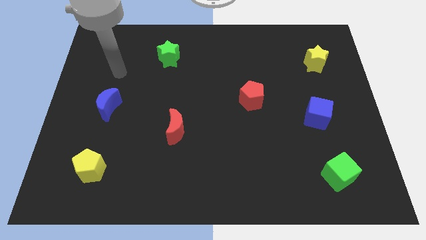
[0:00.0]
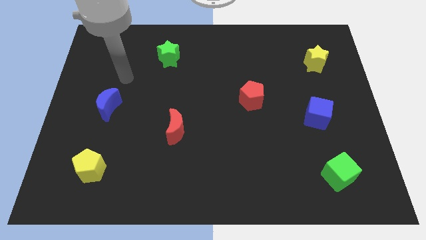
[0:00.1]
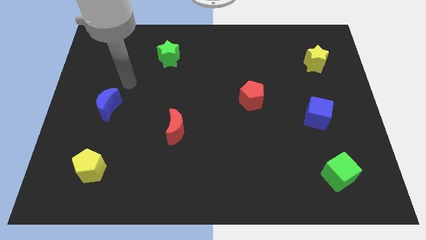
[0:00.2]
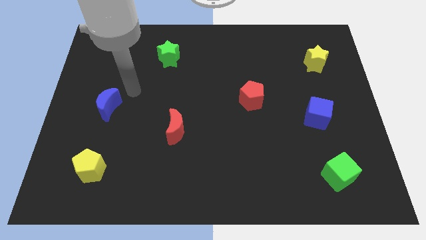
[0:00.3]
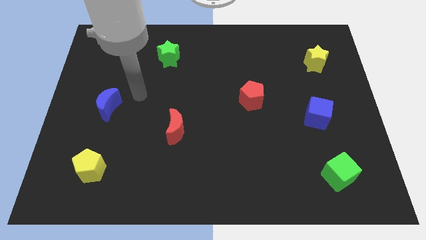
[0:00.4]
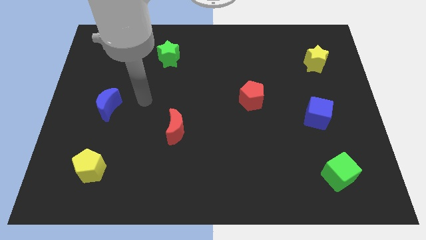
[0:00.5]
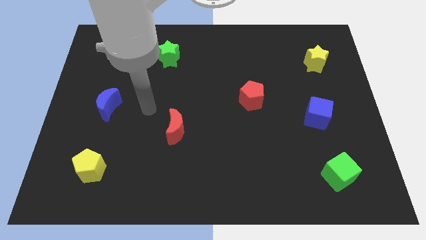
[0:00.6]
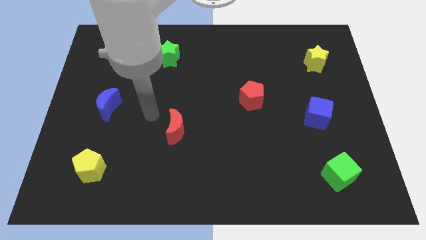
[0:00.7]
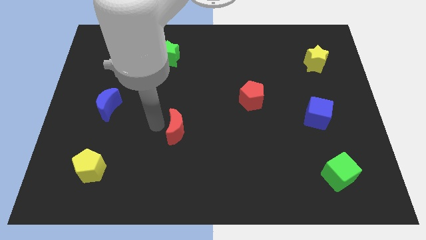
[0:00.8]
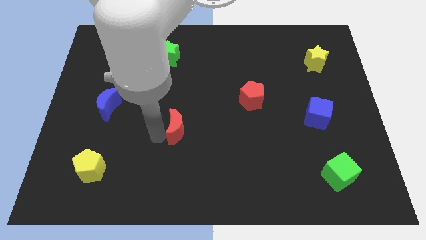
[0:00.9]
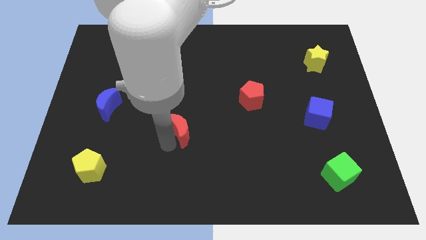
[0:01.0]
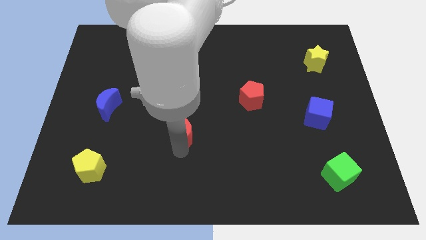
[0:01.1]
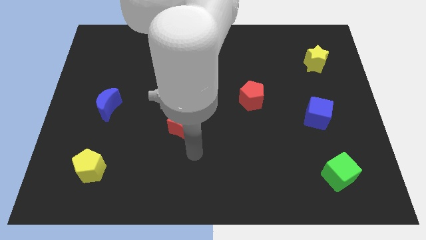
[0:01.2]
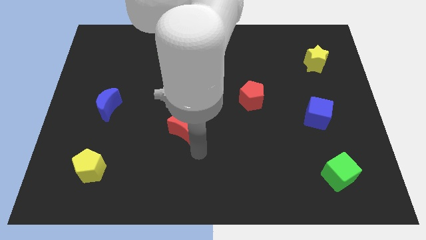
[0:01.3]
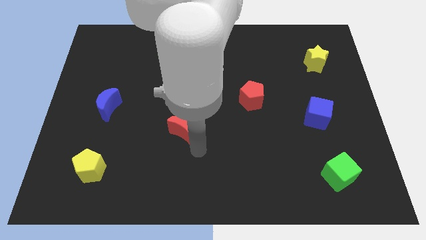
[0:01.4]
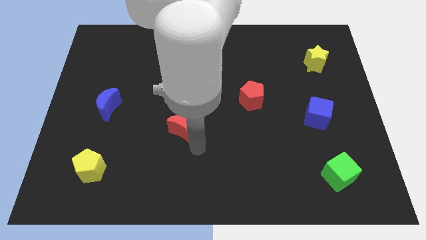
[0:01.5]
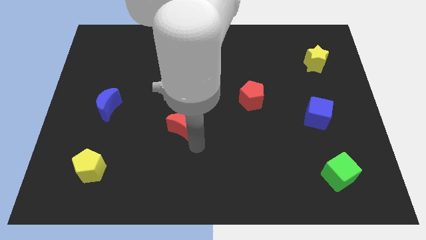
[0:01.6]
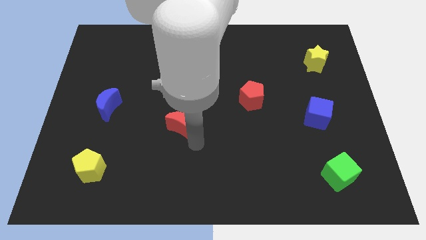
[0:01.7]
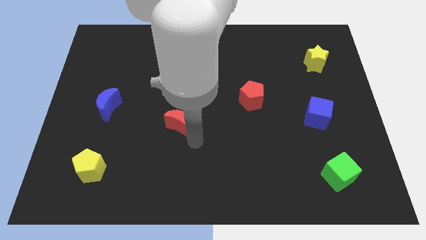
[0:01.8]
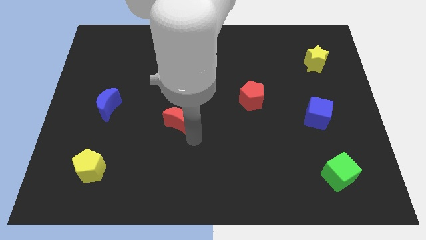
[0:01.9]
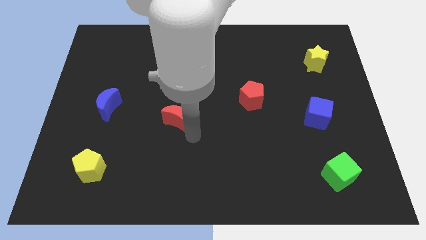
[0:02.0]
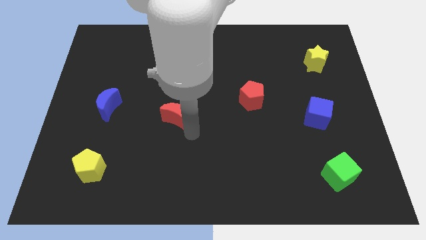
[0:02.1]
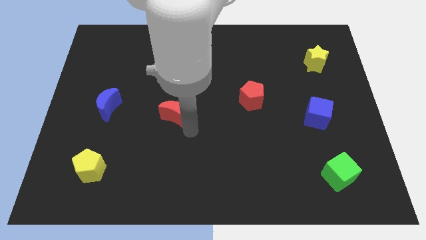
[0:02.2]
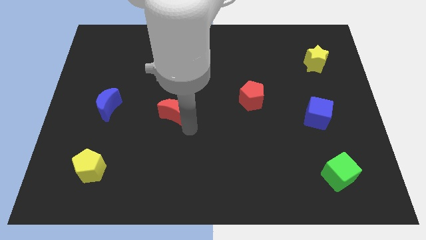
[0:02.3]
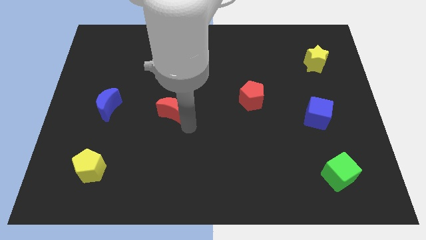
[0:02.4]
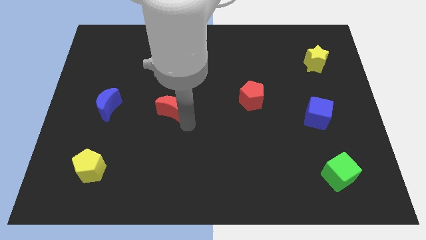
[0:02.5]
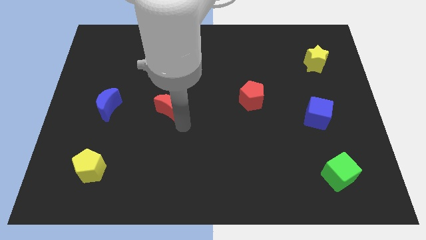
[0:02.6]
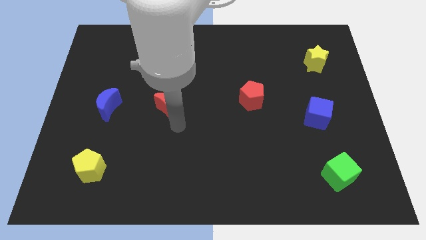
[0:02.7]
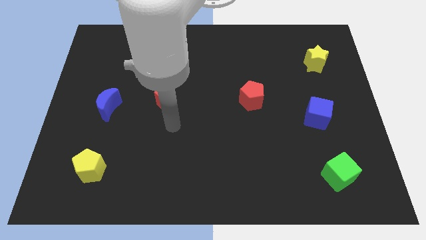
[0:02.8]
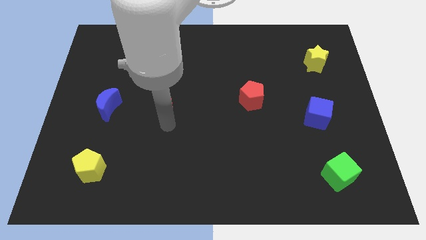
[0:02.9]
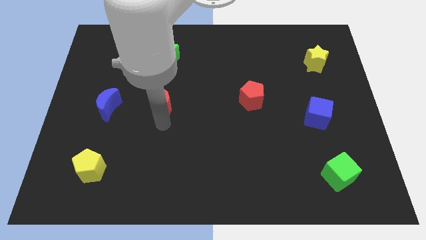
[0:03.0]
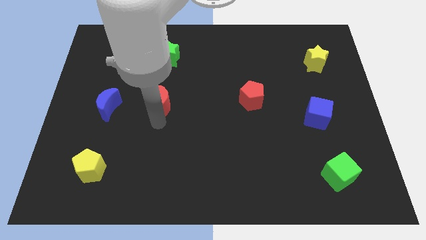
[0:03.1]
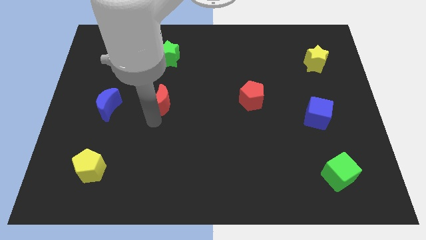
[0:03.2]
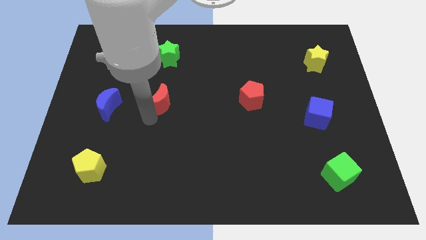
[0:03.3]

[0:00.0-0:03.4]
slightly slide the red moon up

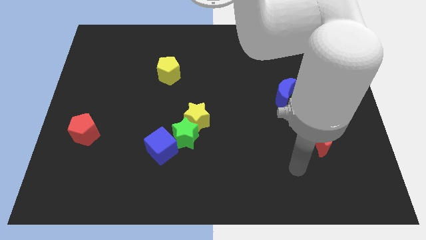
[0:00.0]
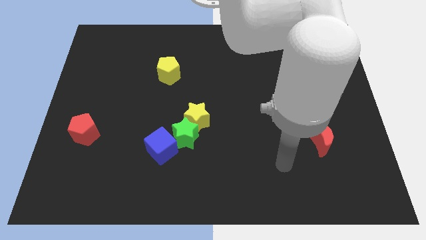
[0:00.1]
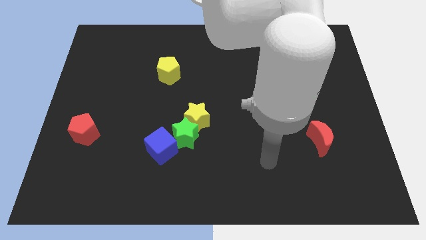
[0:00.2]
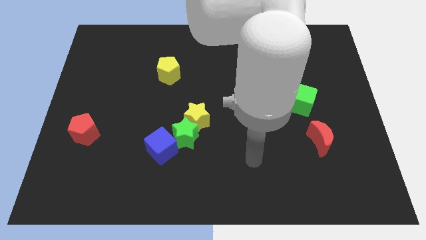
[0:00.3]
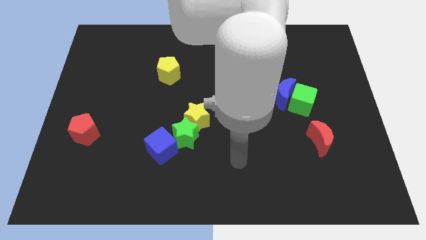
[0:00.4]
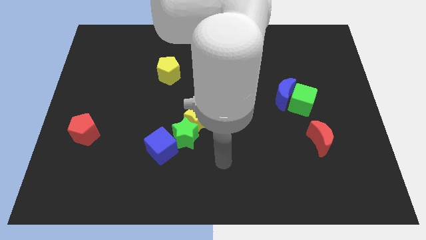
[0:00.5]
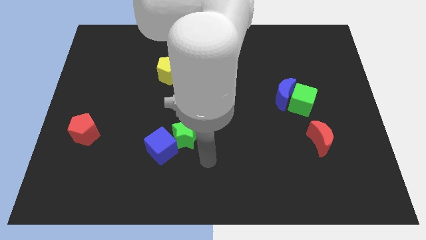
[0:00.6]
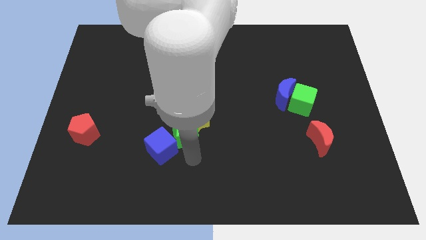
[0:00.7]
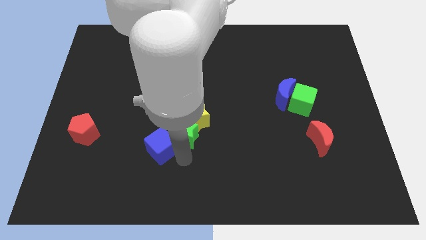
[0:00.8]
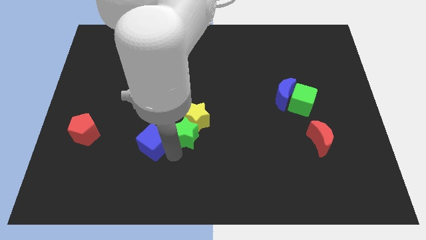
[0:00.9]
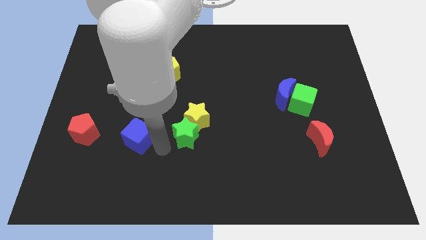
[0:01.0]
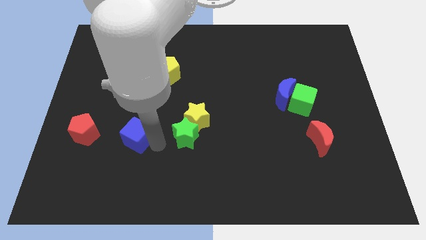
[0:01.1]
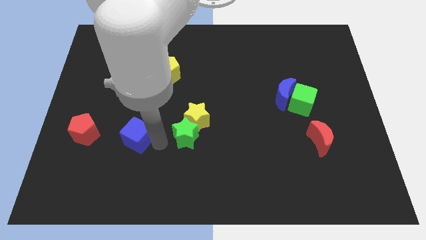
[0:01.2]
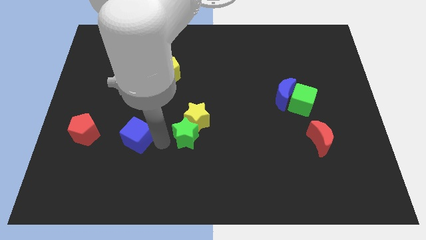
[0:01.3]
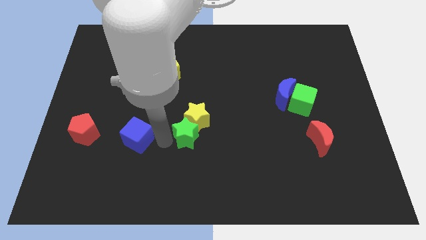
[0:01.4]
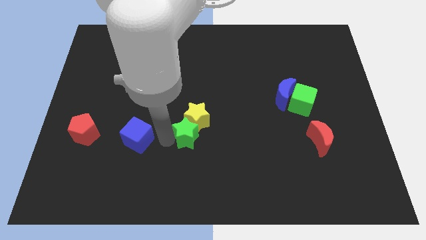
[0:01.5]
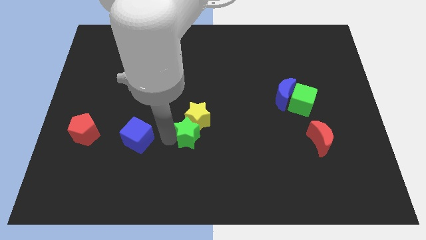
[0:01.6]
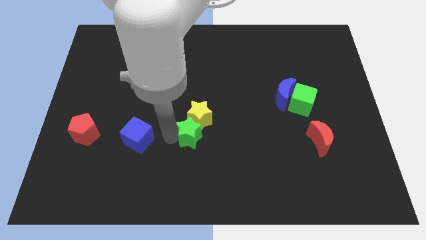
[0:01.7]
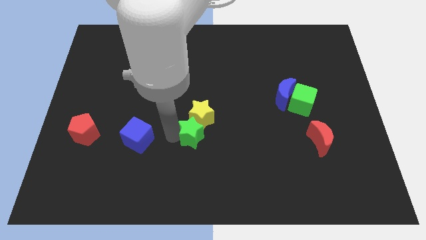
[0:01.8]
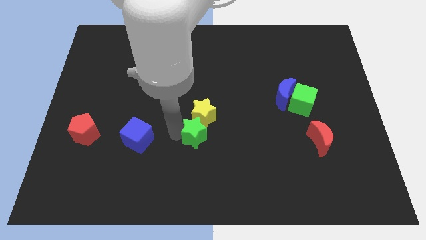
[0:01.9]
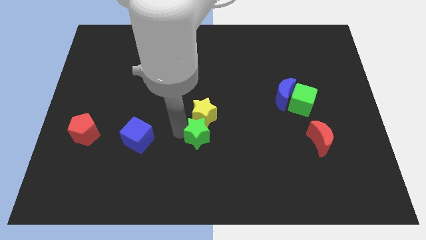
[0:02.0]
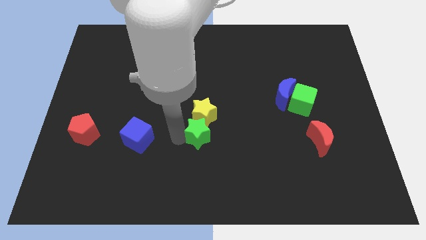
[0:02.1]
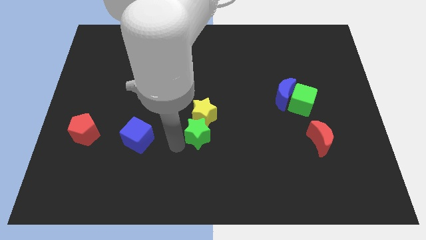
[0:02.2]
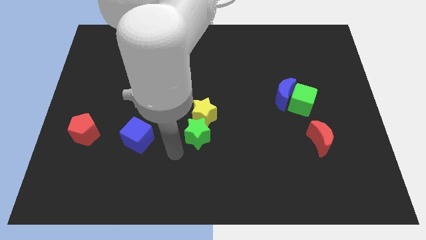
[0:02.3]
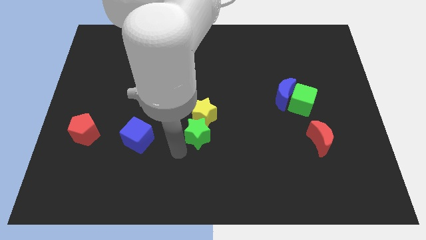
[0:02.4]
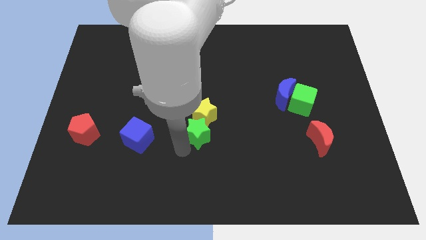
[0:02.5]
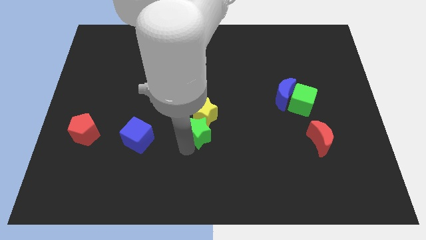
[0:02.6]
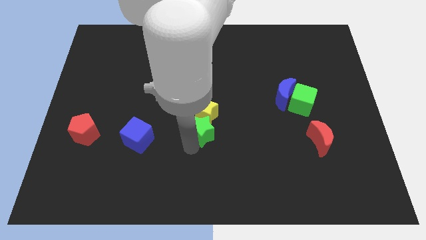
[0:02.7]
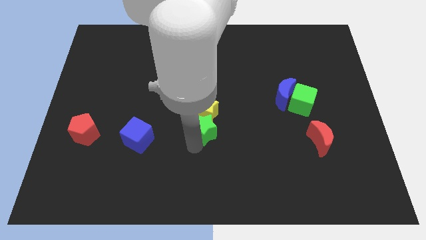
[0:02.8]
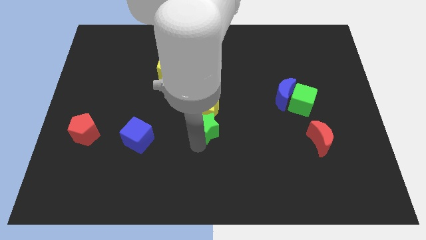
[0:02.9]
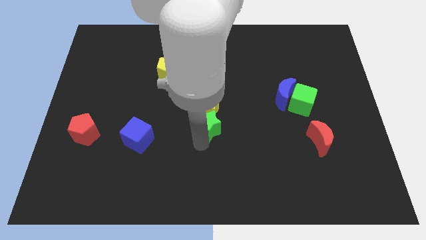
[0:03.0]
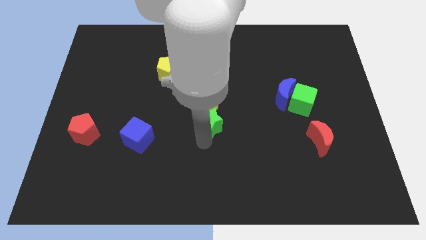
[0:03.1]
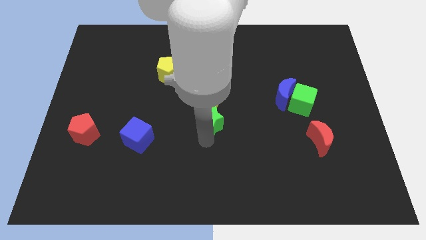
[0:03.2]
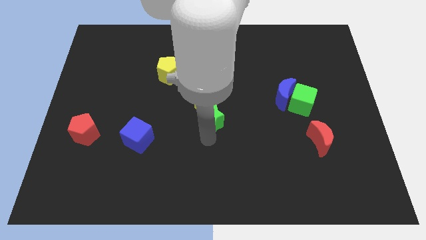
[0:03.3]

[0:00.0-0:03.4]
slightly slide the green star up and right diagonally

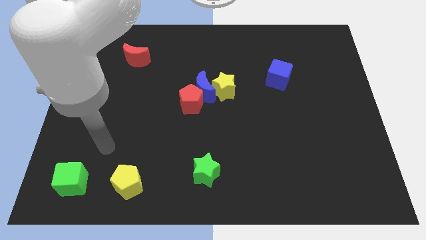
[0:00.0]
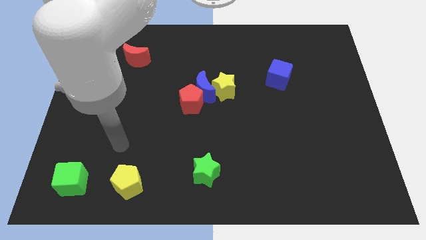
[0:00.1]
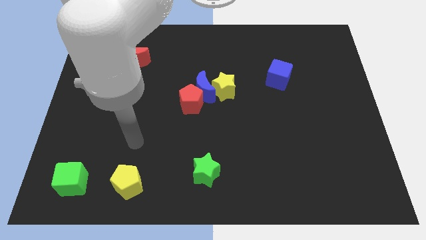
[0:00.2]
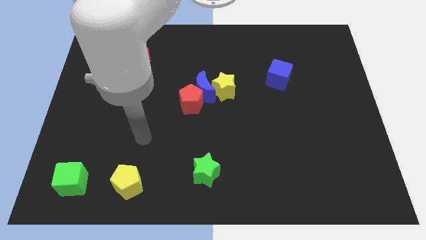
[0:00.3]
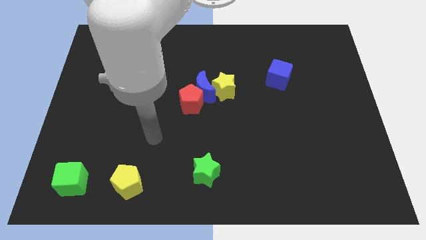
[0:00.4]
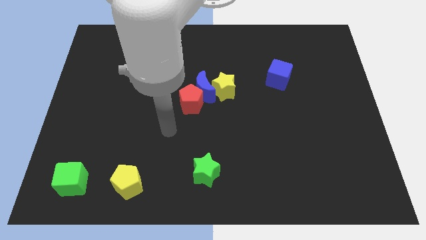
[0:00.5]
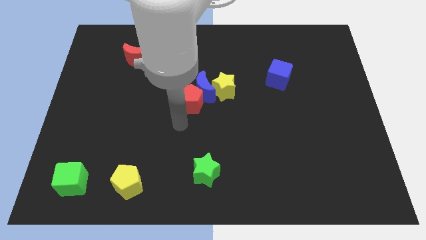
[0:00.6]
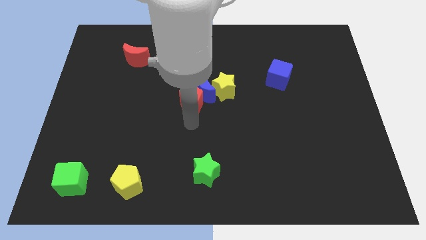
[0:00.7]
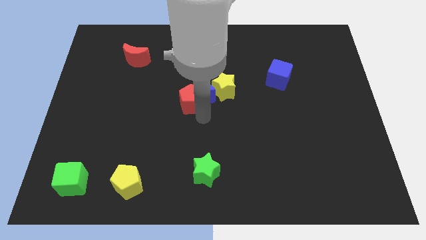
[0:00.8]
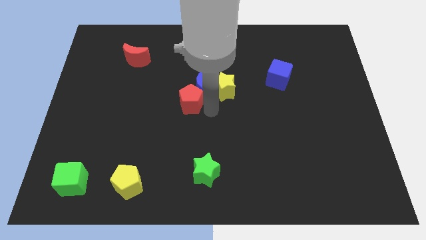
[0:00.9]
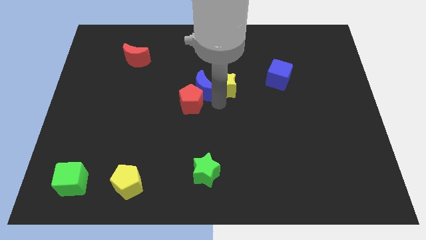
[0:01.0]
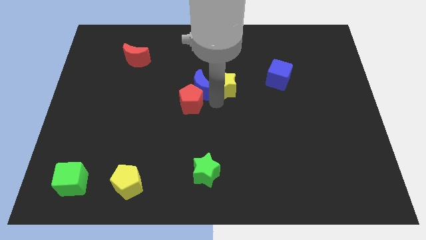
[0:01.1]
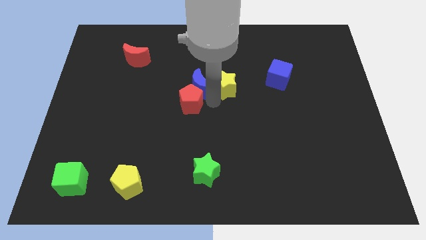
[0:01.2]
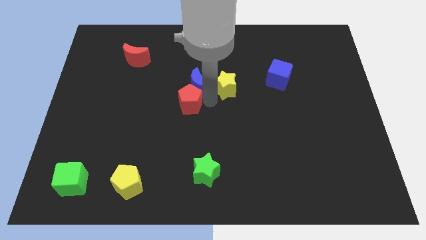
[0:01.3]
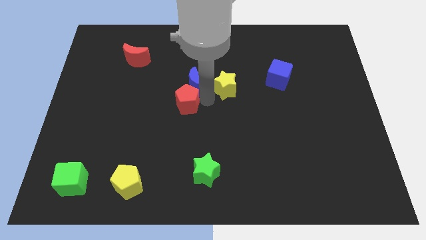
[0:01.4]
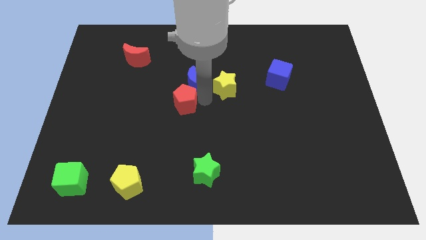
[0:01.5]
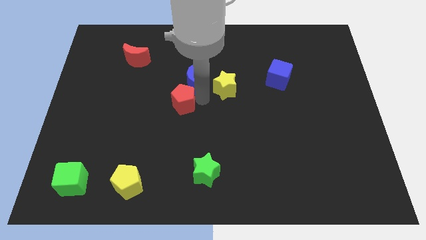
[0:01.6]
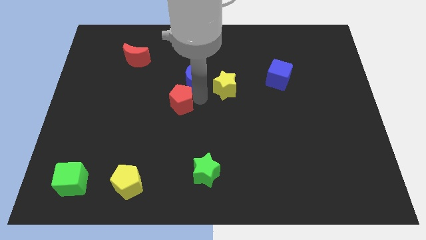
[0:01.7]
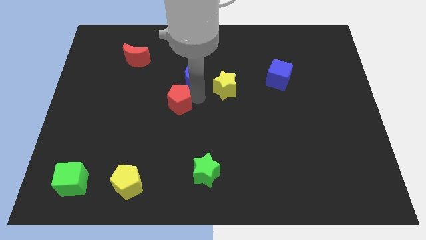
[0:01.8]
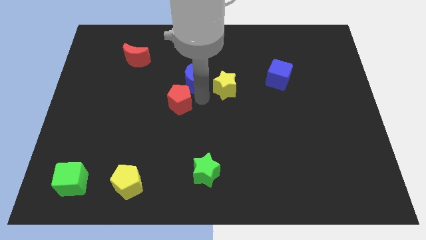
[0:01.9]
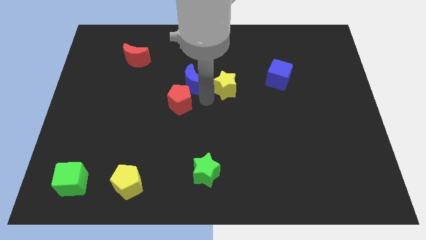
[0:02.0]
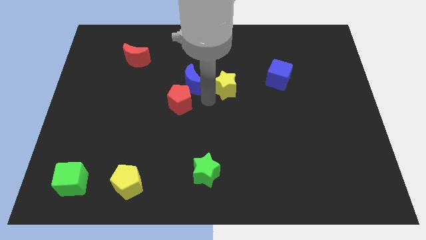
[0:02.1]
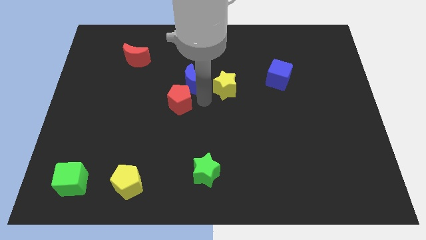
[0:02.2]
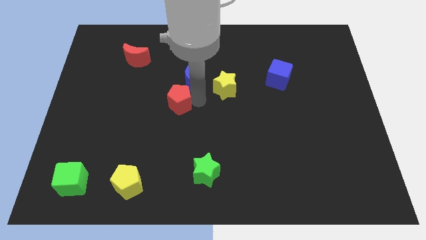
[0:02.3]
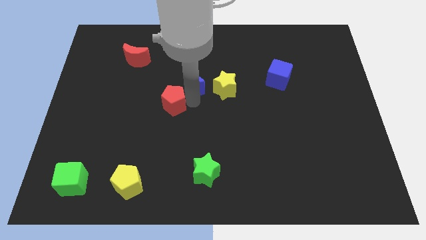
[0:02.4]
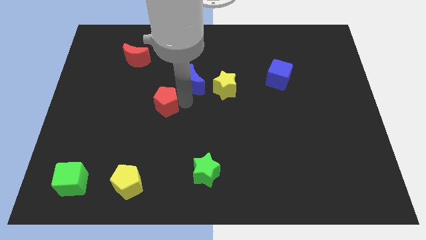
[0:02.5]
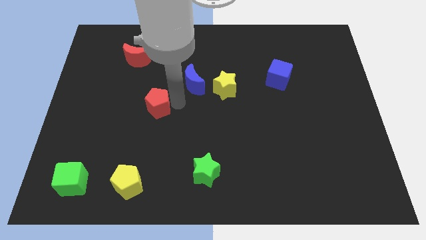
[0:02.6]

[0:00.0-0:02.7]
move the red pentagon left a little
